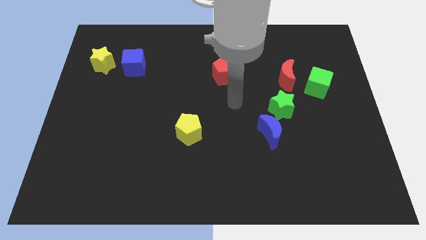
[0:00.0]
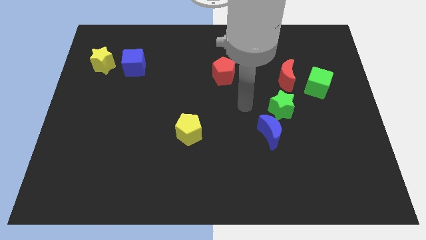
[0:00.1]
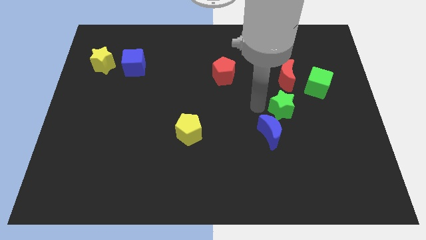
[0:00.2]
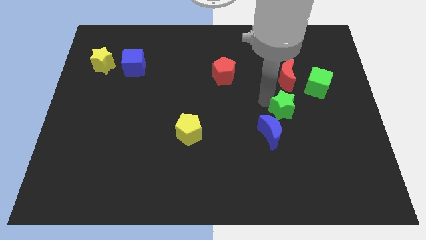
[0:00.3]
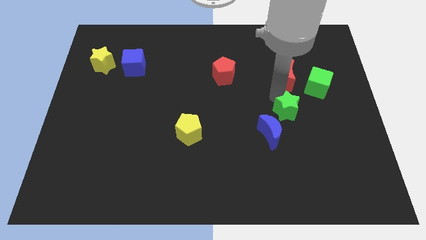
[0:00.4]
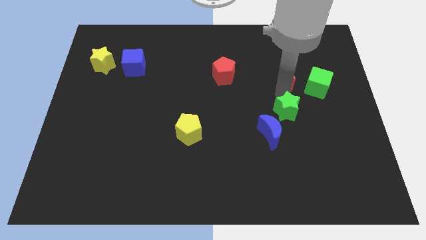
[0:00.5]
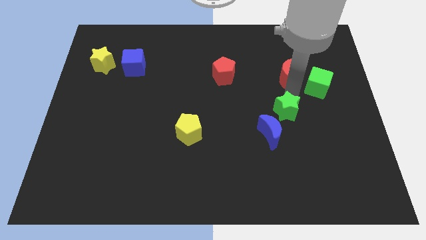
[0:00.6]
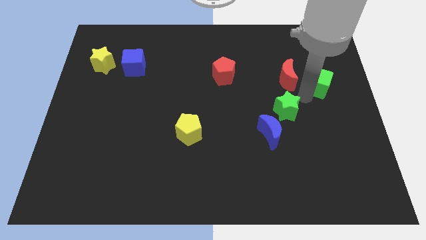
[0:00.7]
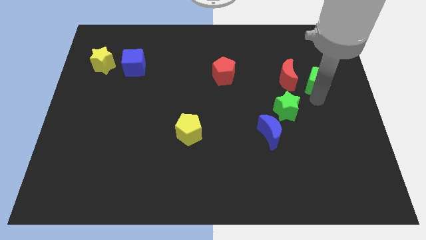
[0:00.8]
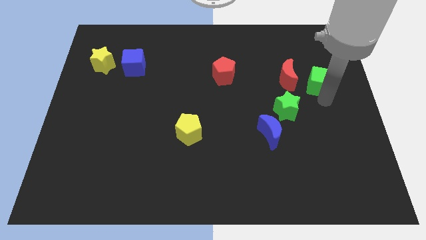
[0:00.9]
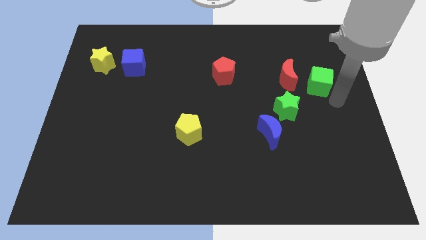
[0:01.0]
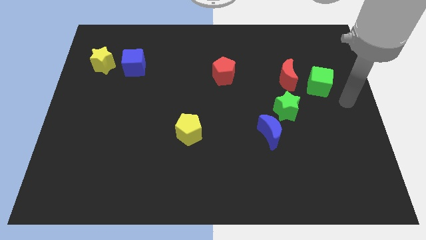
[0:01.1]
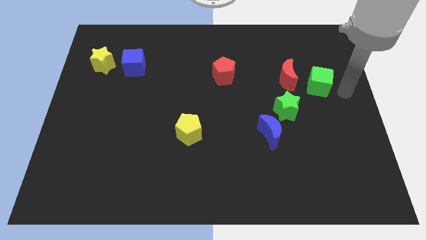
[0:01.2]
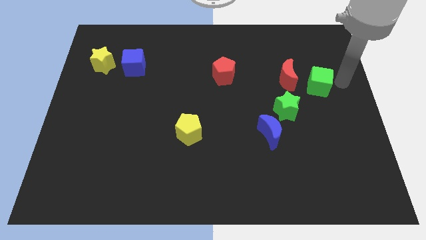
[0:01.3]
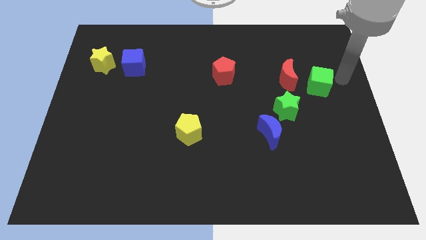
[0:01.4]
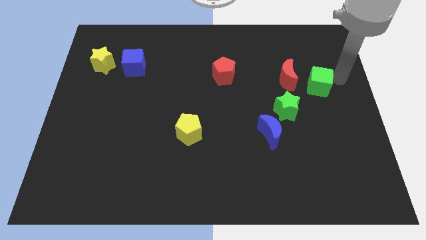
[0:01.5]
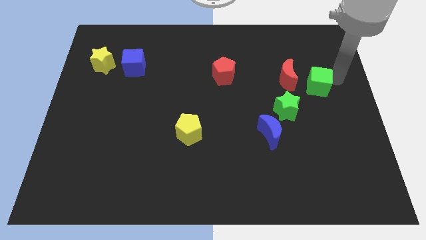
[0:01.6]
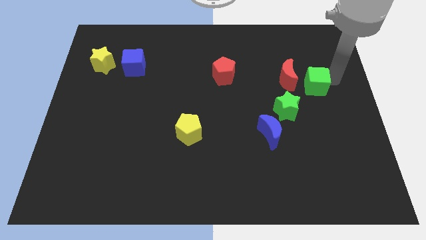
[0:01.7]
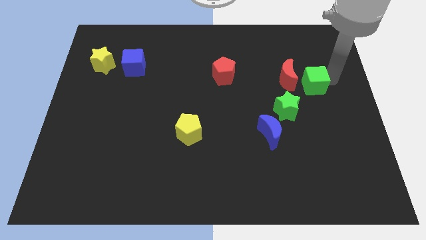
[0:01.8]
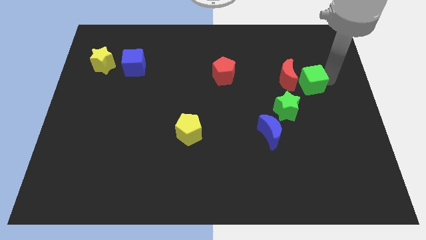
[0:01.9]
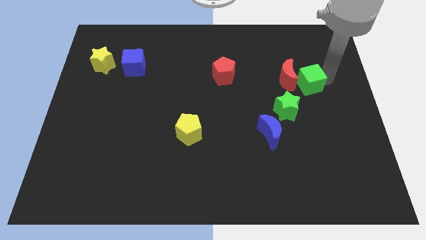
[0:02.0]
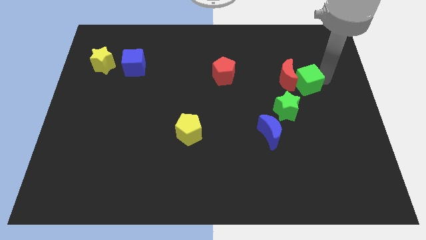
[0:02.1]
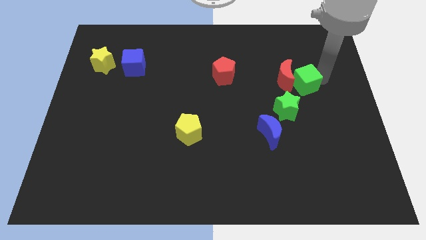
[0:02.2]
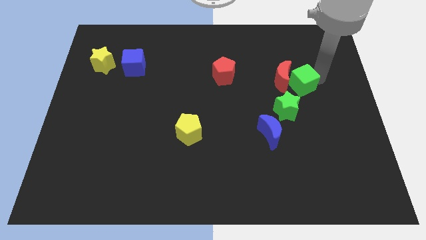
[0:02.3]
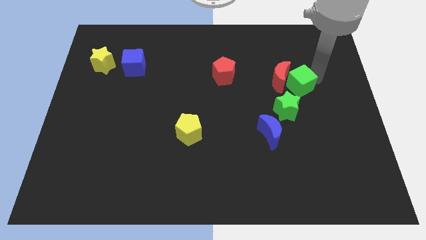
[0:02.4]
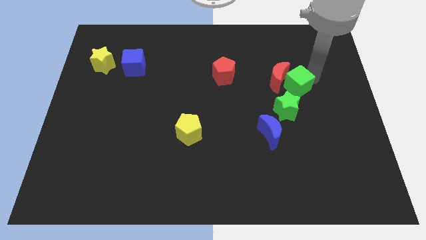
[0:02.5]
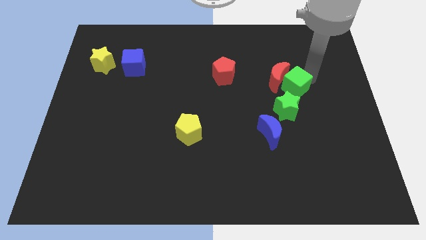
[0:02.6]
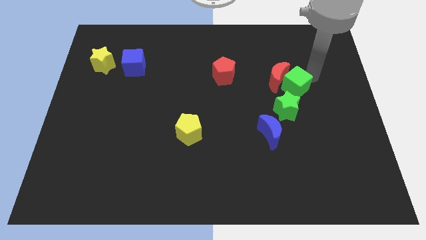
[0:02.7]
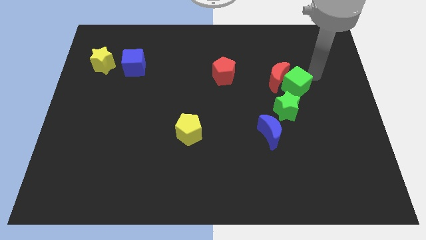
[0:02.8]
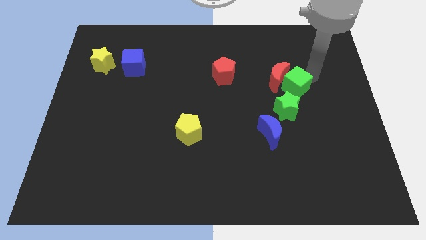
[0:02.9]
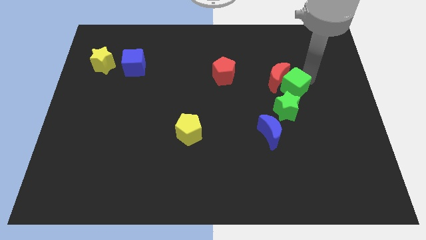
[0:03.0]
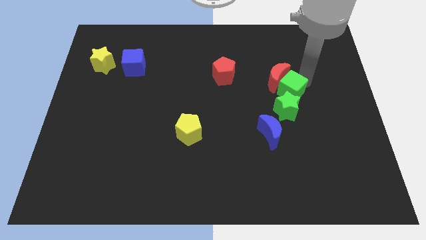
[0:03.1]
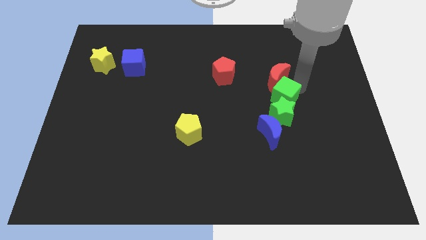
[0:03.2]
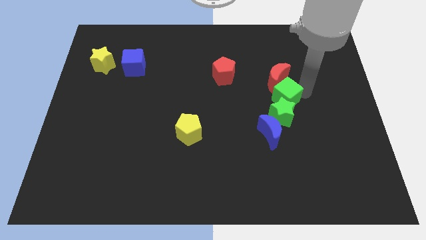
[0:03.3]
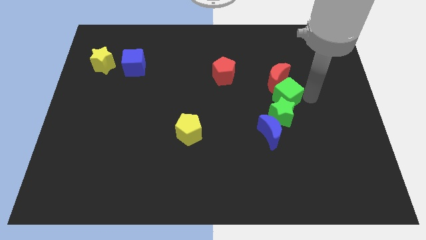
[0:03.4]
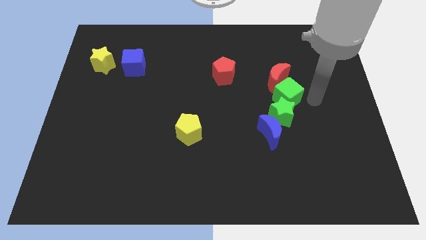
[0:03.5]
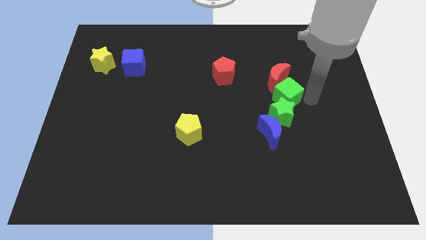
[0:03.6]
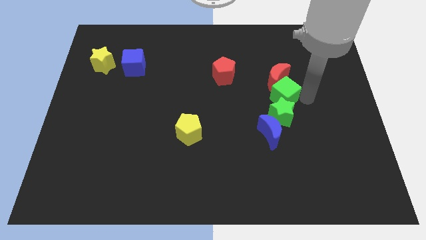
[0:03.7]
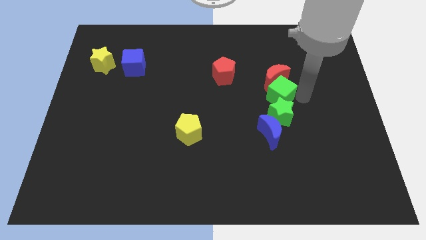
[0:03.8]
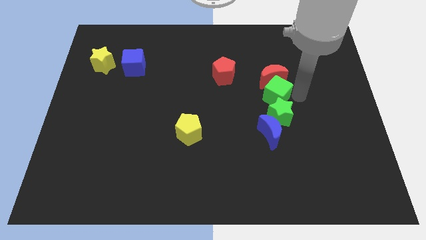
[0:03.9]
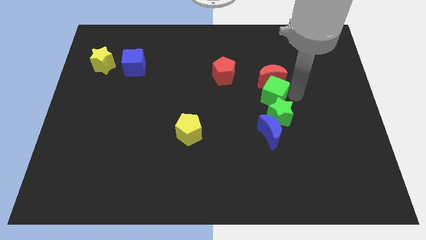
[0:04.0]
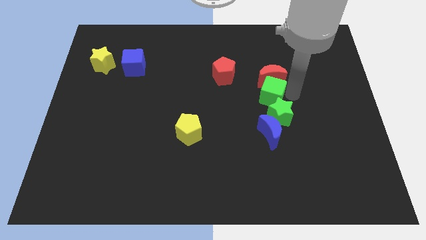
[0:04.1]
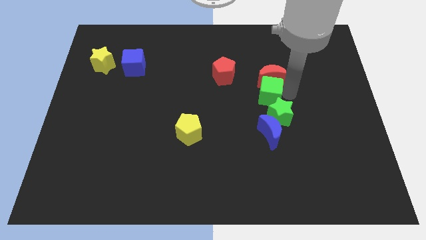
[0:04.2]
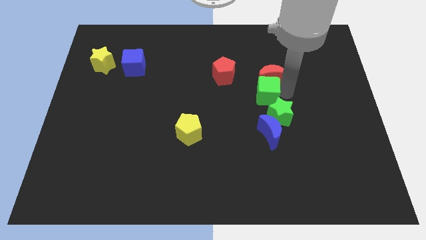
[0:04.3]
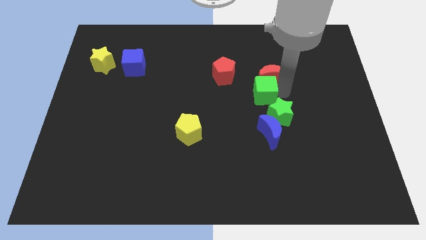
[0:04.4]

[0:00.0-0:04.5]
put the green cube to the center of the board

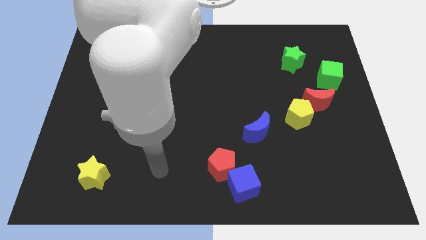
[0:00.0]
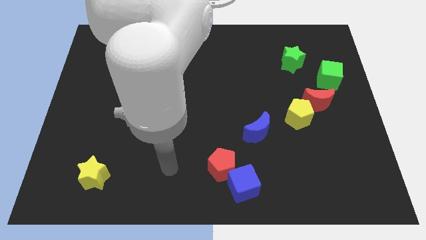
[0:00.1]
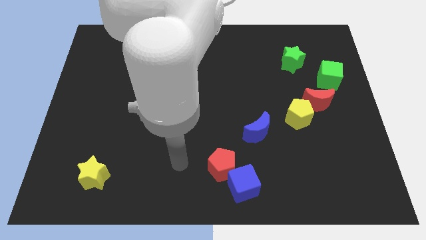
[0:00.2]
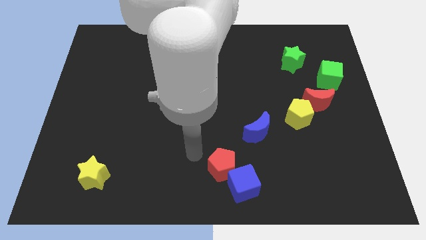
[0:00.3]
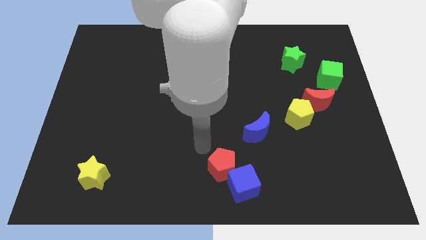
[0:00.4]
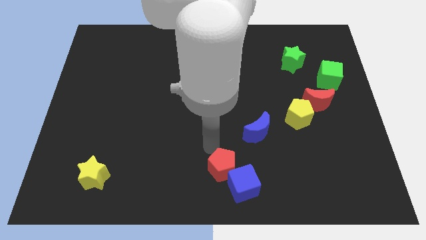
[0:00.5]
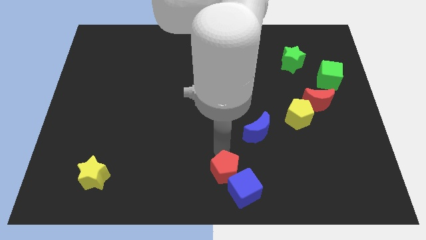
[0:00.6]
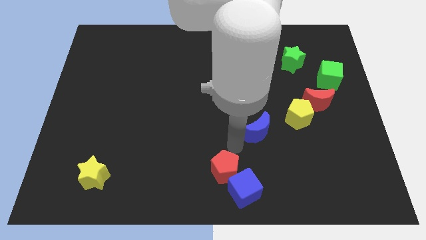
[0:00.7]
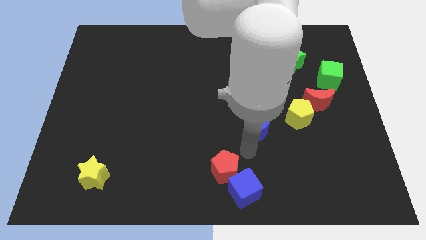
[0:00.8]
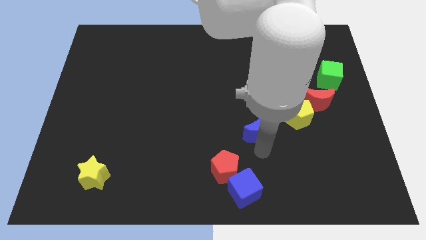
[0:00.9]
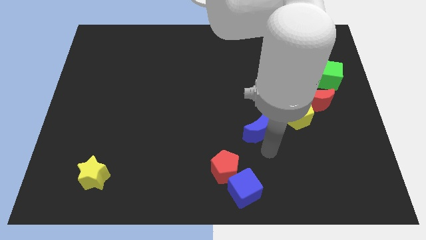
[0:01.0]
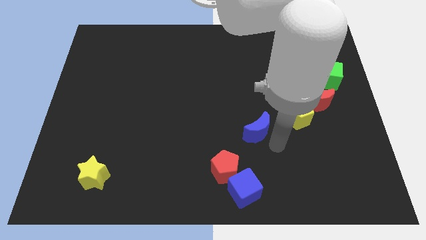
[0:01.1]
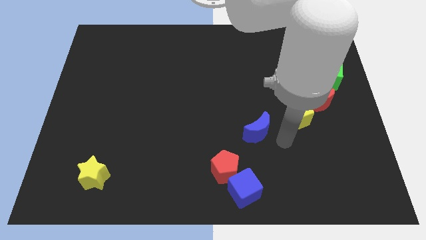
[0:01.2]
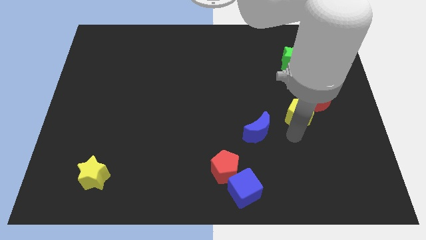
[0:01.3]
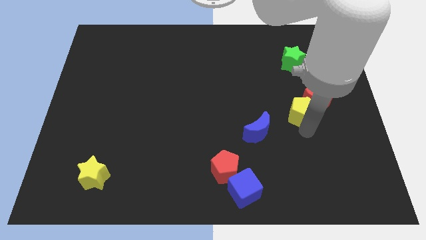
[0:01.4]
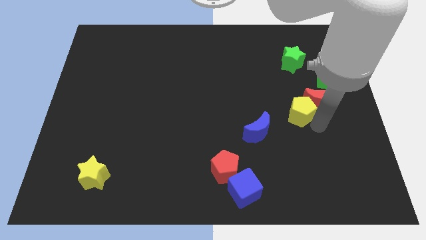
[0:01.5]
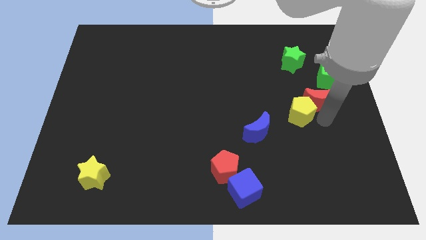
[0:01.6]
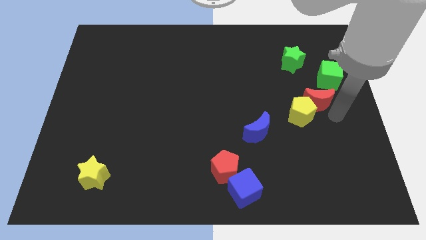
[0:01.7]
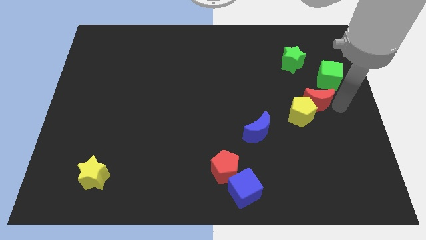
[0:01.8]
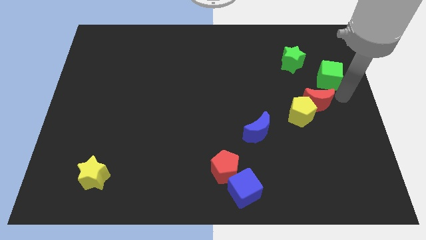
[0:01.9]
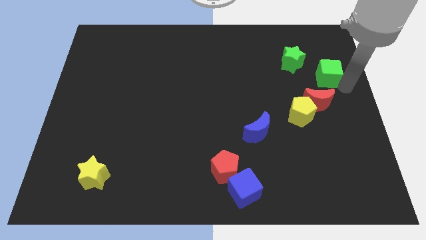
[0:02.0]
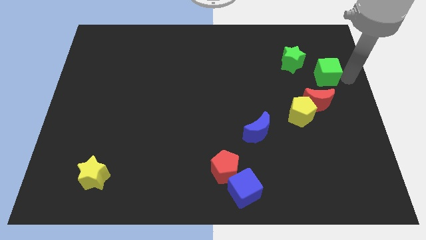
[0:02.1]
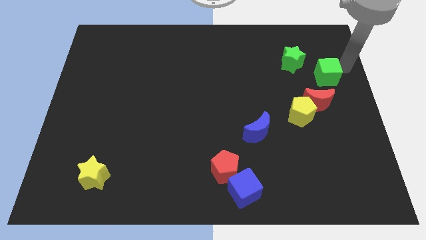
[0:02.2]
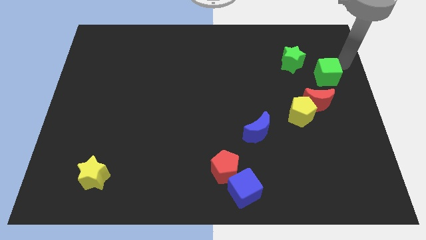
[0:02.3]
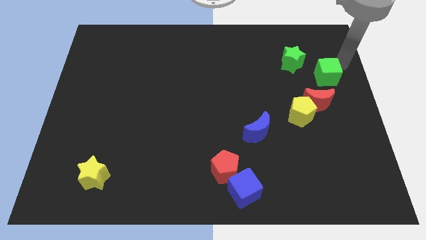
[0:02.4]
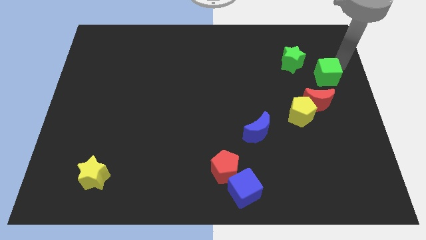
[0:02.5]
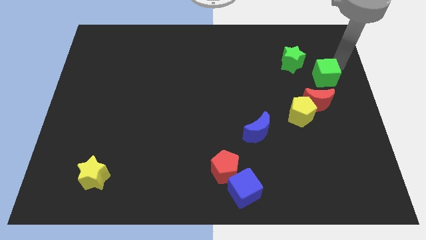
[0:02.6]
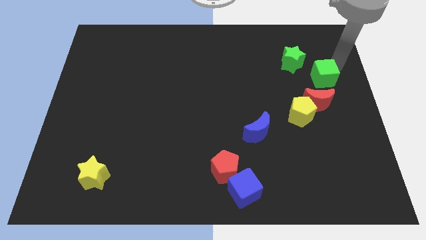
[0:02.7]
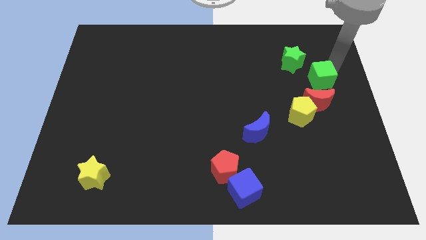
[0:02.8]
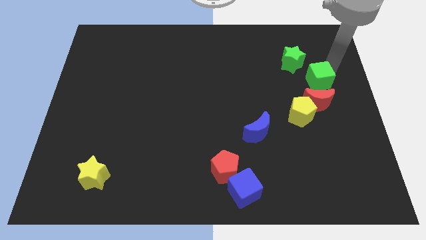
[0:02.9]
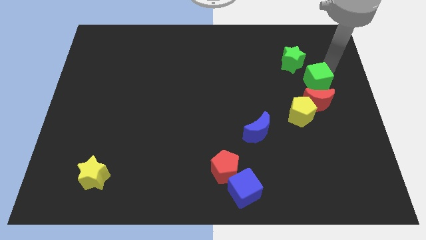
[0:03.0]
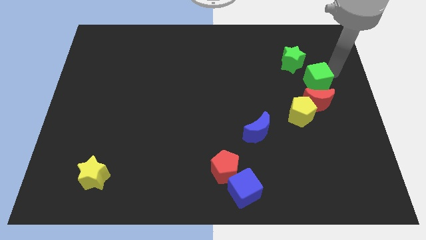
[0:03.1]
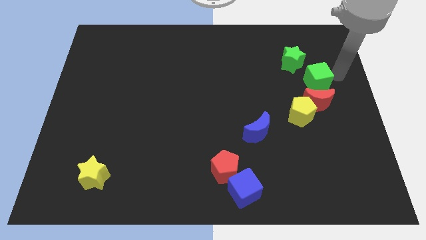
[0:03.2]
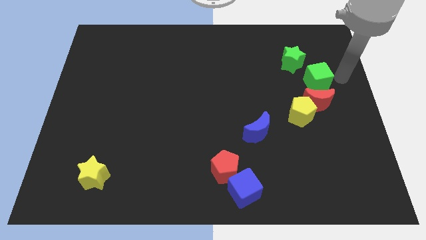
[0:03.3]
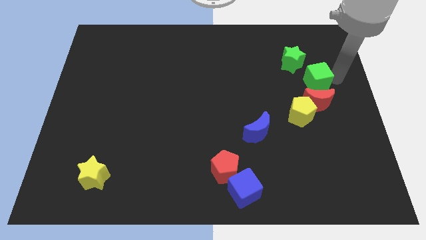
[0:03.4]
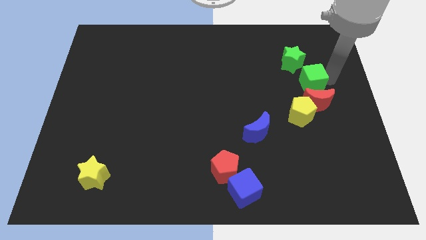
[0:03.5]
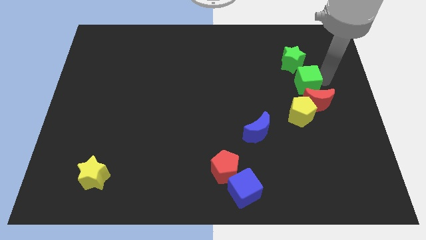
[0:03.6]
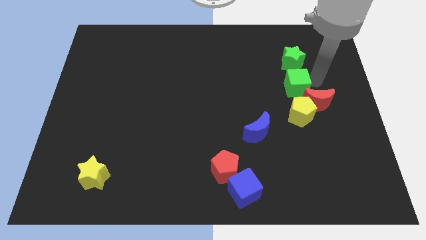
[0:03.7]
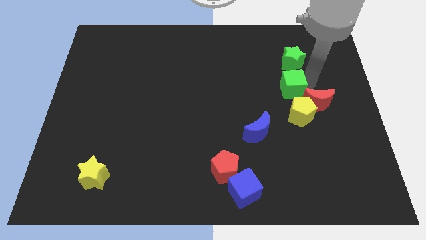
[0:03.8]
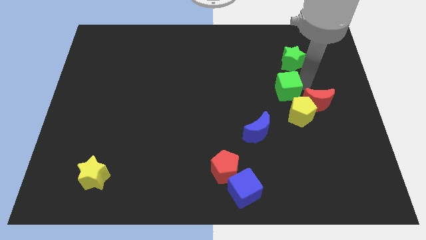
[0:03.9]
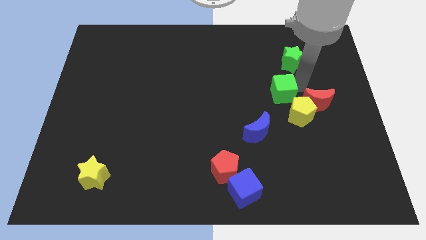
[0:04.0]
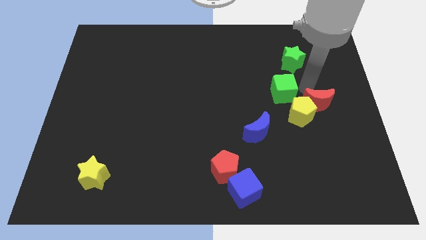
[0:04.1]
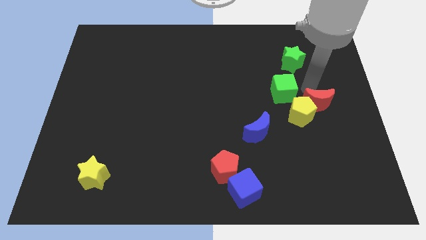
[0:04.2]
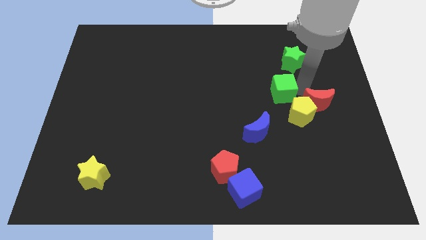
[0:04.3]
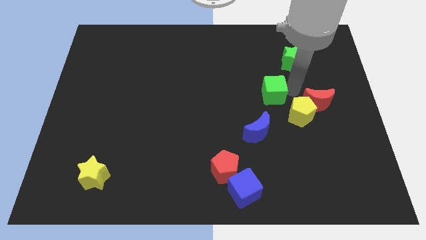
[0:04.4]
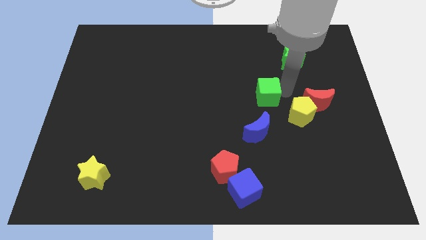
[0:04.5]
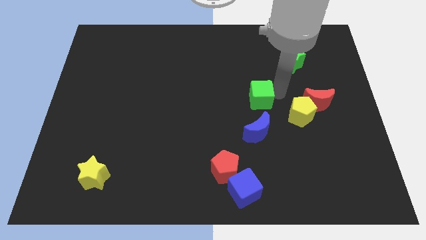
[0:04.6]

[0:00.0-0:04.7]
slide the green cube to the center
